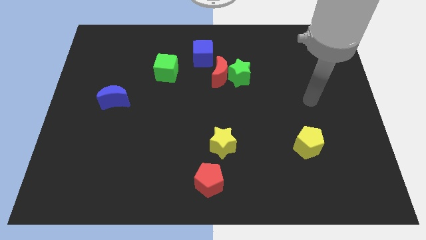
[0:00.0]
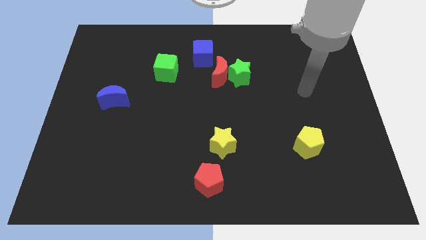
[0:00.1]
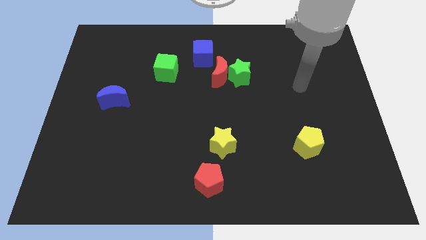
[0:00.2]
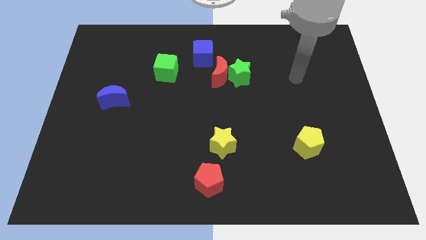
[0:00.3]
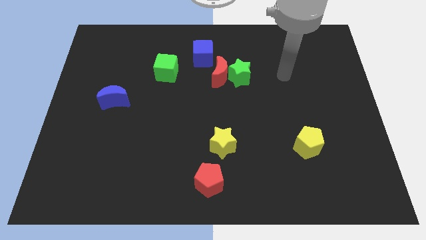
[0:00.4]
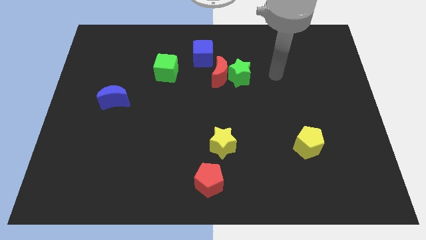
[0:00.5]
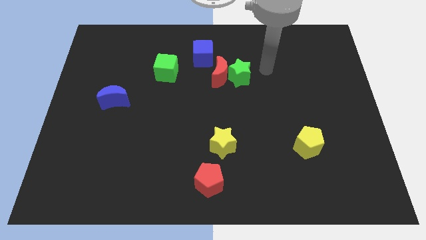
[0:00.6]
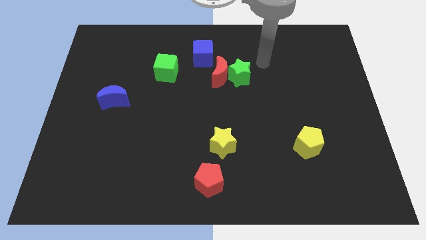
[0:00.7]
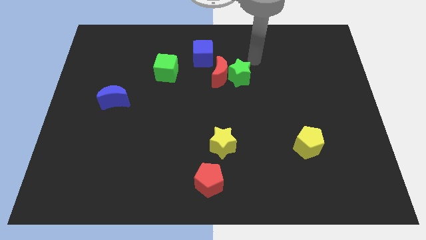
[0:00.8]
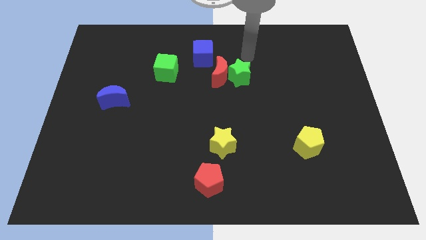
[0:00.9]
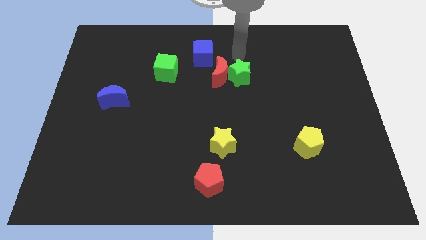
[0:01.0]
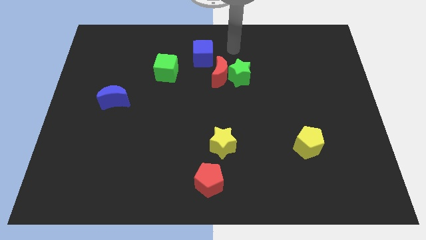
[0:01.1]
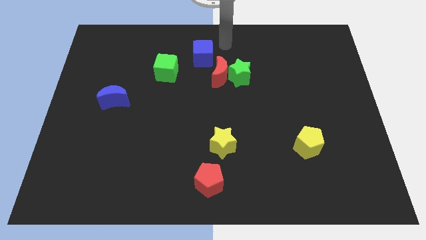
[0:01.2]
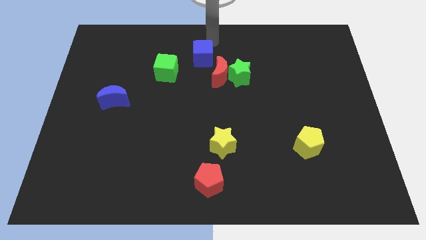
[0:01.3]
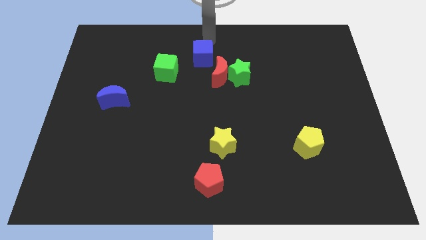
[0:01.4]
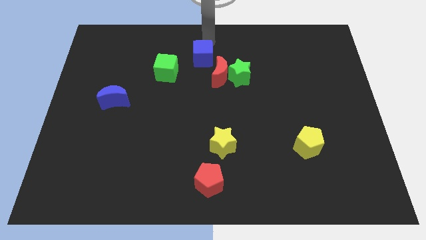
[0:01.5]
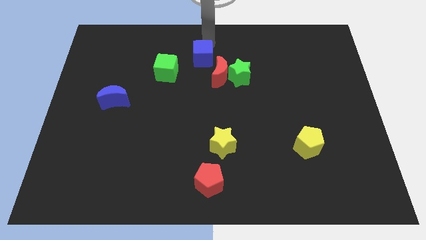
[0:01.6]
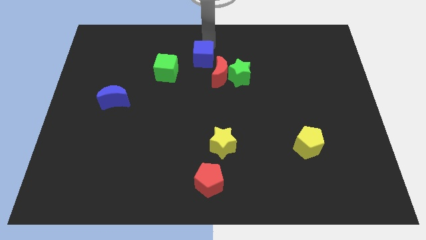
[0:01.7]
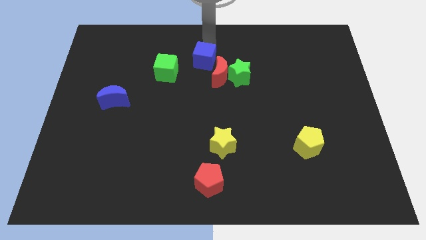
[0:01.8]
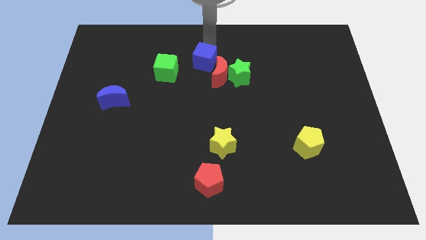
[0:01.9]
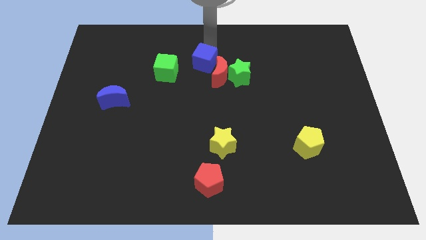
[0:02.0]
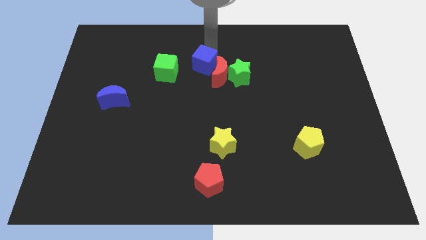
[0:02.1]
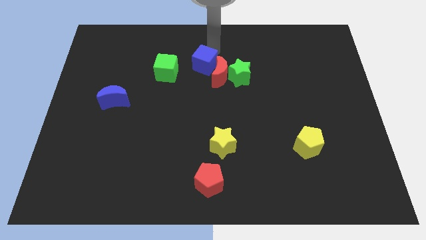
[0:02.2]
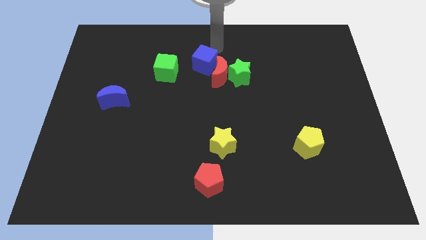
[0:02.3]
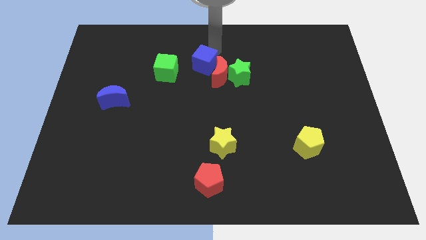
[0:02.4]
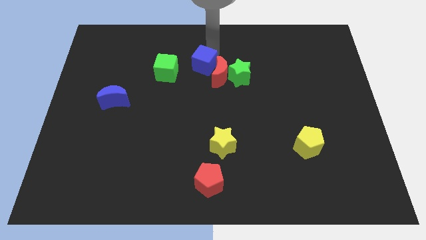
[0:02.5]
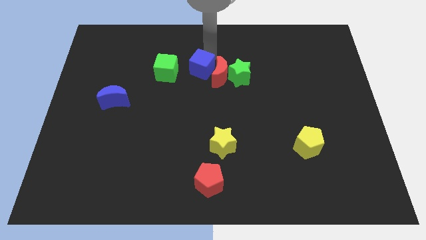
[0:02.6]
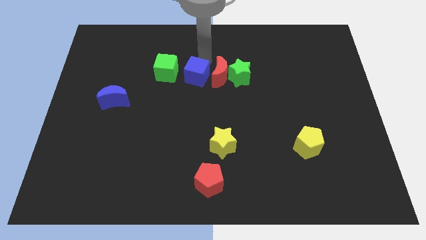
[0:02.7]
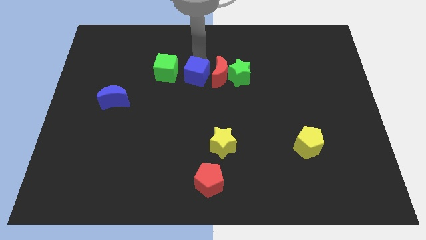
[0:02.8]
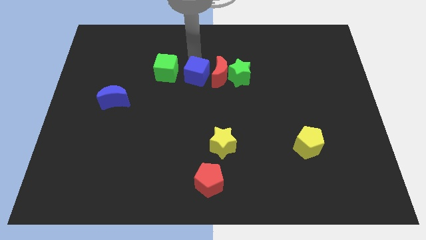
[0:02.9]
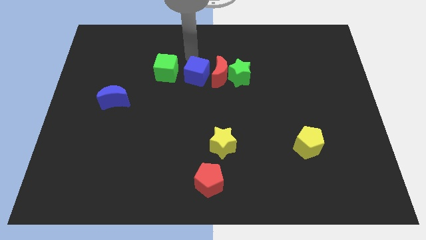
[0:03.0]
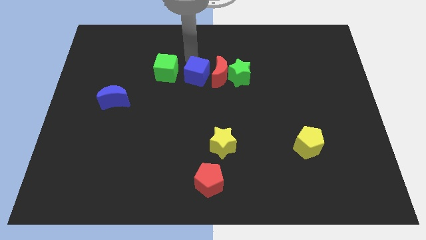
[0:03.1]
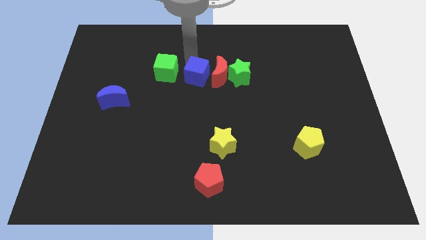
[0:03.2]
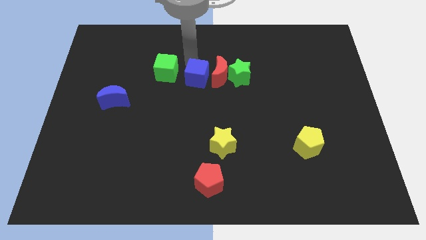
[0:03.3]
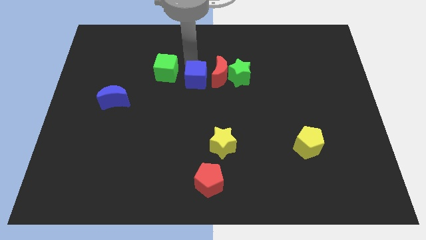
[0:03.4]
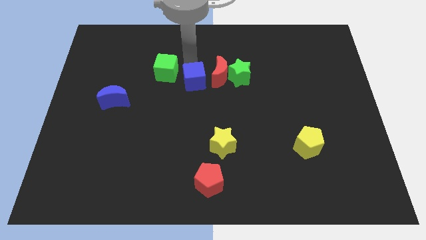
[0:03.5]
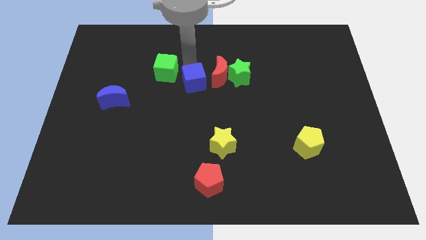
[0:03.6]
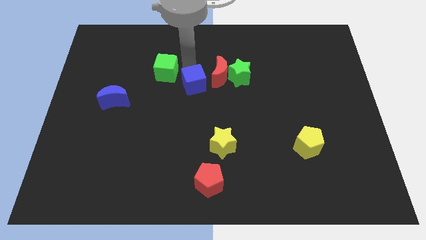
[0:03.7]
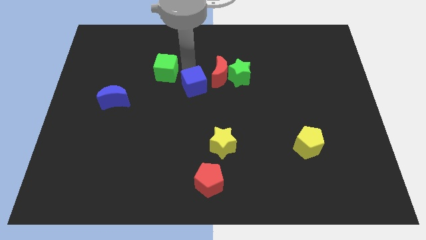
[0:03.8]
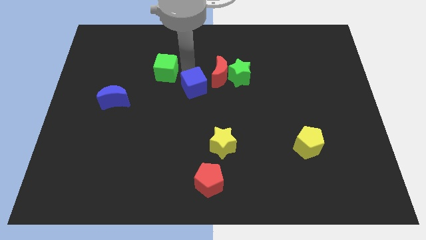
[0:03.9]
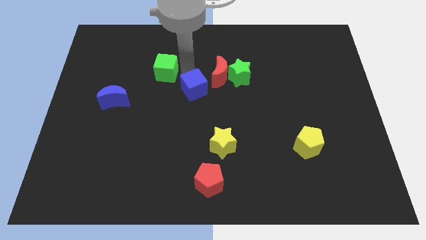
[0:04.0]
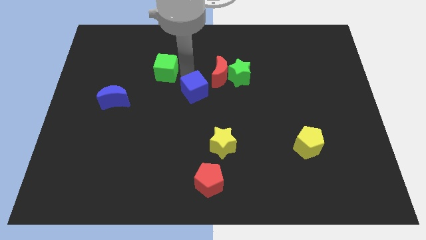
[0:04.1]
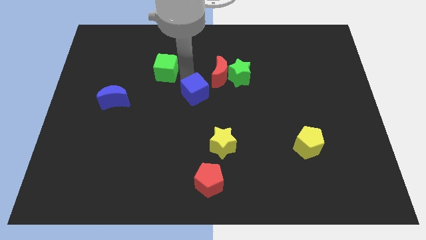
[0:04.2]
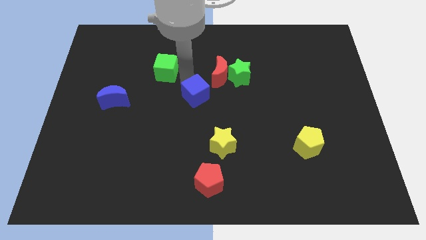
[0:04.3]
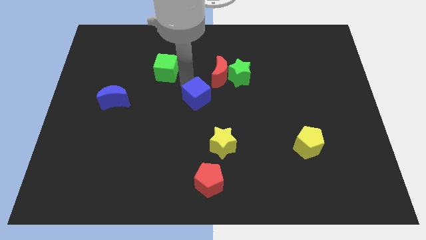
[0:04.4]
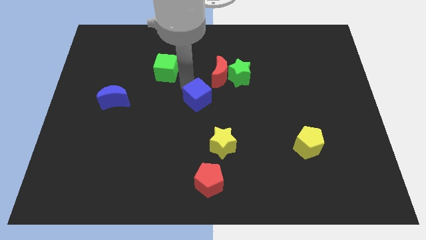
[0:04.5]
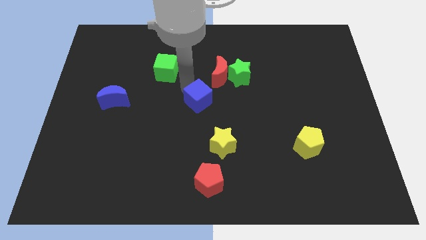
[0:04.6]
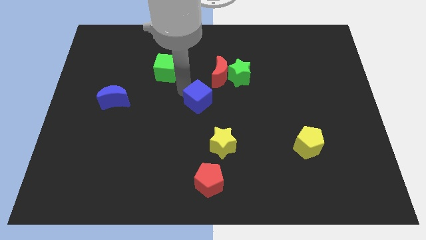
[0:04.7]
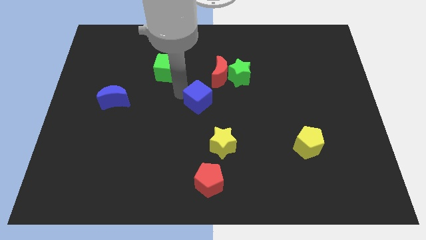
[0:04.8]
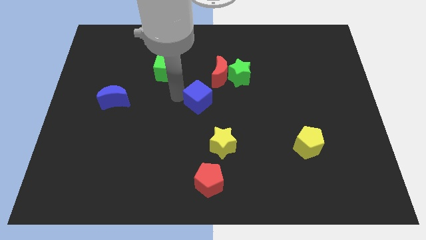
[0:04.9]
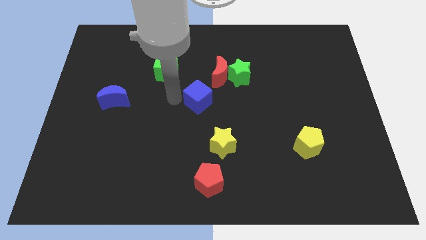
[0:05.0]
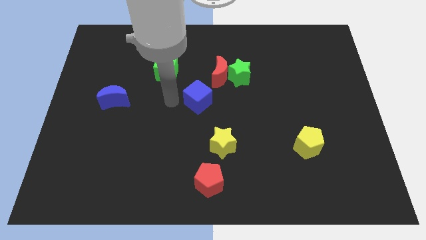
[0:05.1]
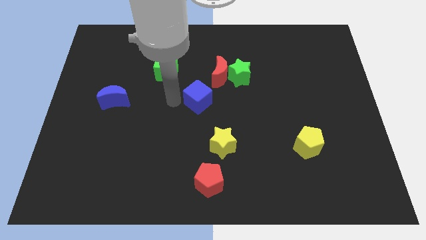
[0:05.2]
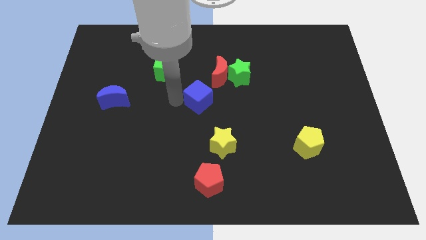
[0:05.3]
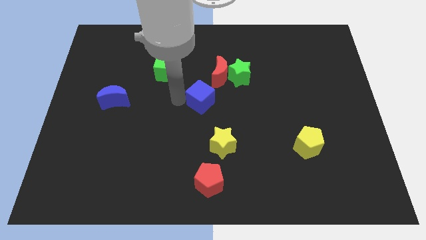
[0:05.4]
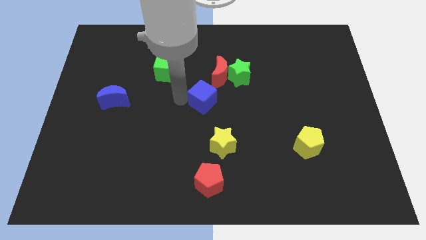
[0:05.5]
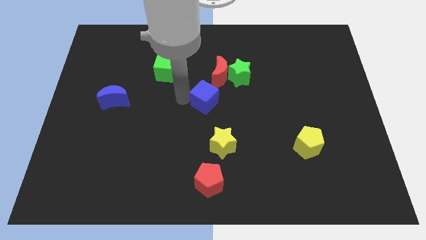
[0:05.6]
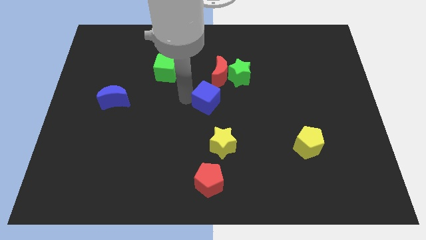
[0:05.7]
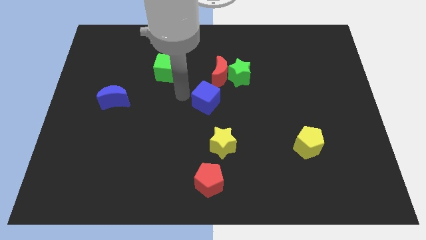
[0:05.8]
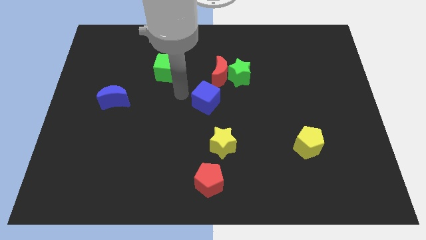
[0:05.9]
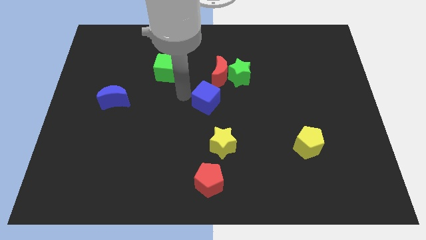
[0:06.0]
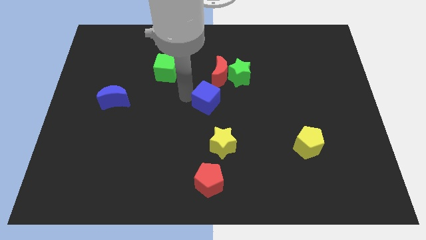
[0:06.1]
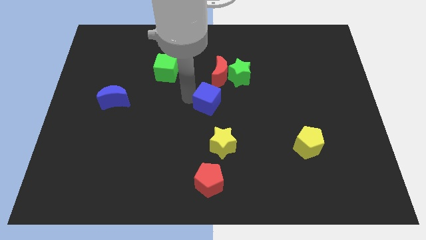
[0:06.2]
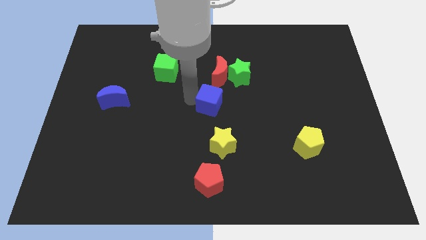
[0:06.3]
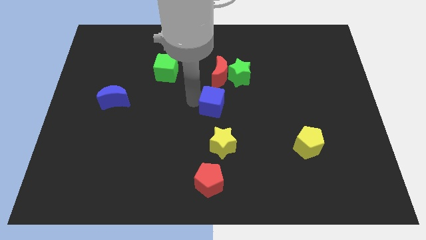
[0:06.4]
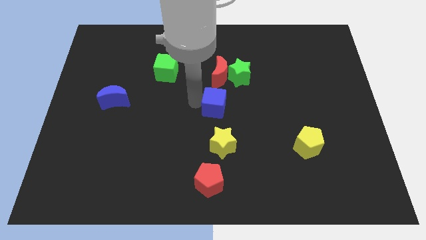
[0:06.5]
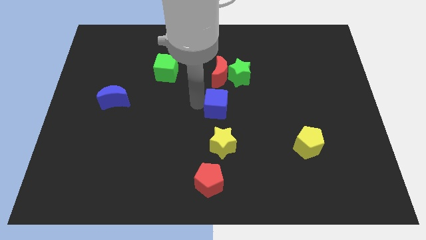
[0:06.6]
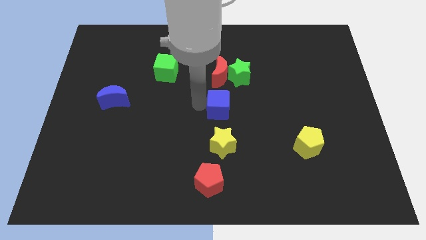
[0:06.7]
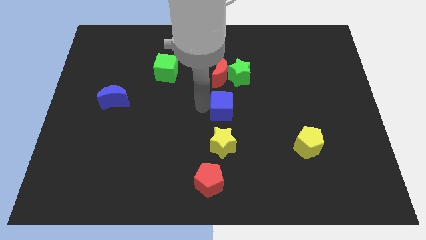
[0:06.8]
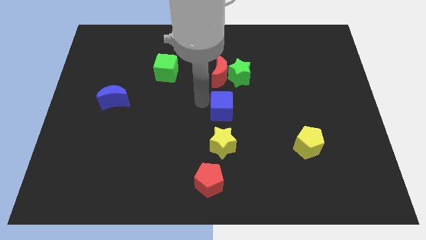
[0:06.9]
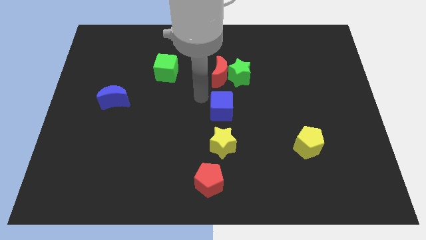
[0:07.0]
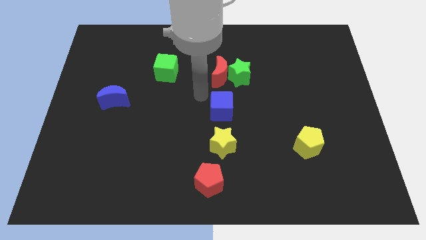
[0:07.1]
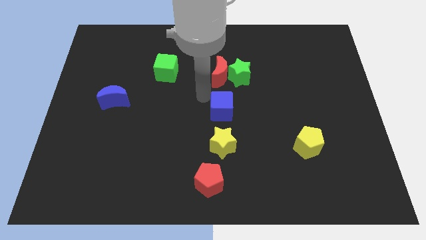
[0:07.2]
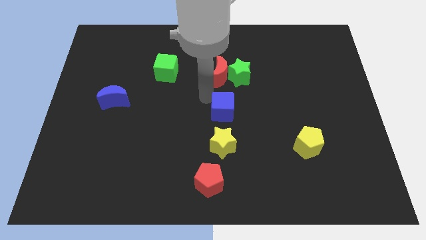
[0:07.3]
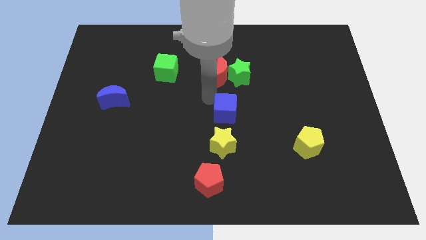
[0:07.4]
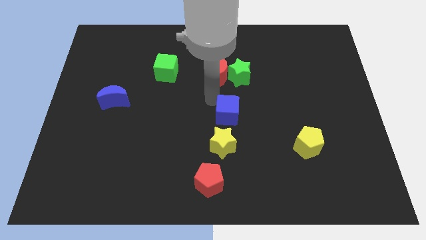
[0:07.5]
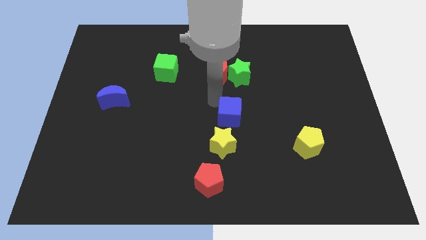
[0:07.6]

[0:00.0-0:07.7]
put the blue cube to the top right side of the yellow star
